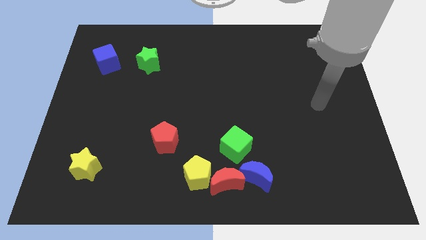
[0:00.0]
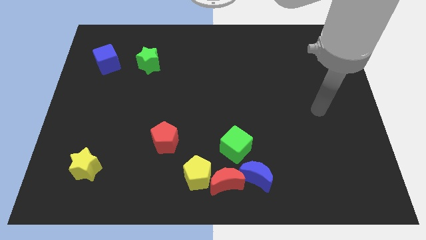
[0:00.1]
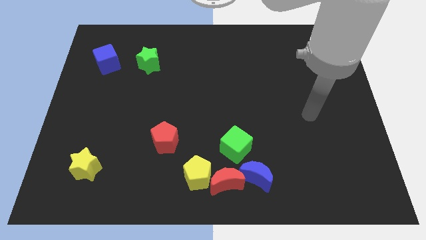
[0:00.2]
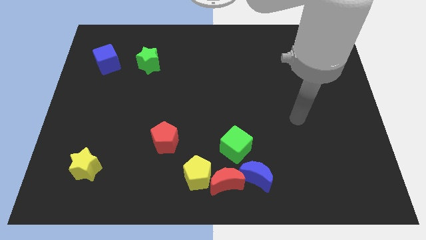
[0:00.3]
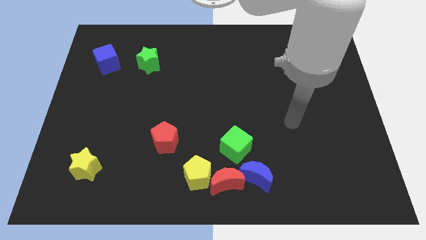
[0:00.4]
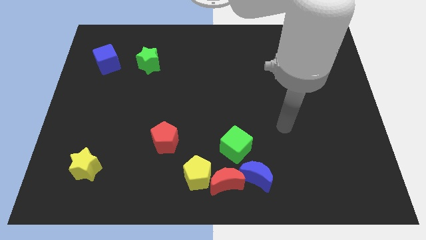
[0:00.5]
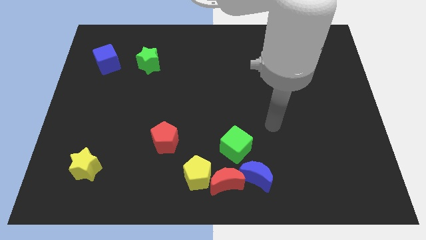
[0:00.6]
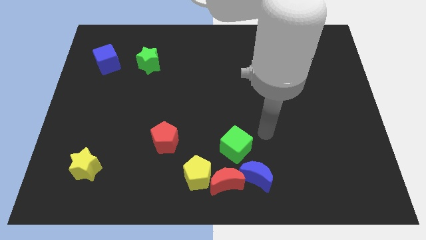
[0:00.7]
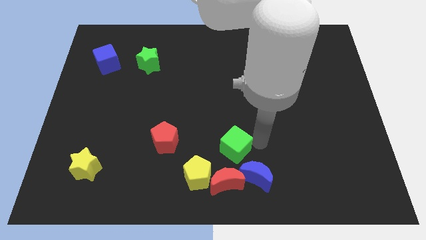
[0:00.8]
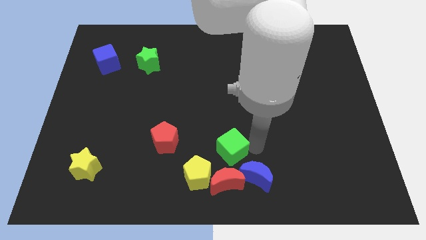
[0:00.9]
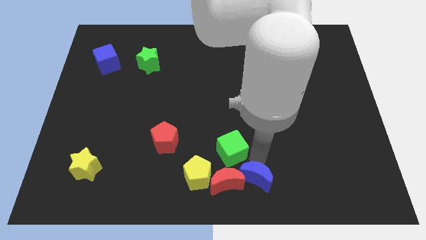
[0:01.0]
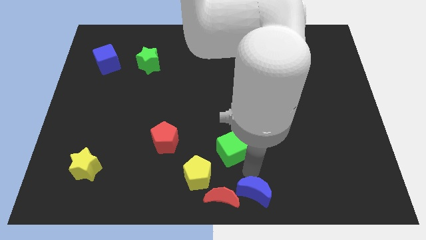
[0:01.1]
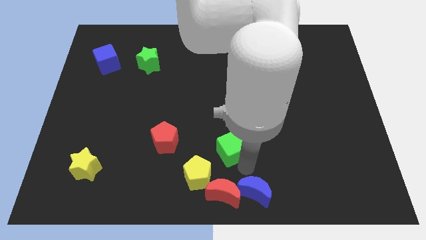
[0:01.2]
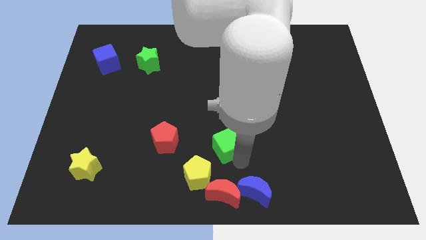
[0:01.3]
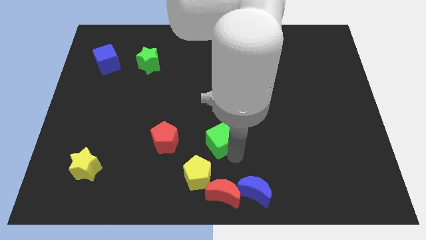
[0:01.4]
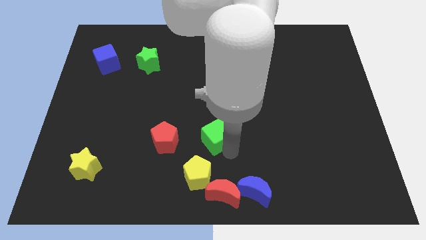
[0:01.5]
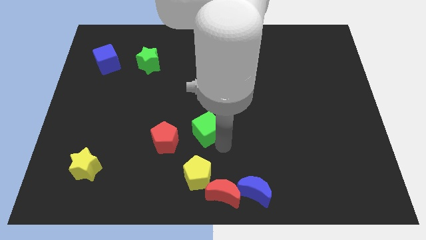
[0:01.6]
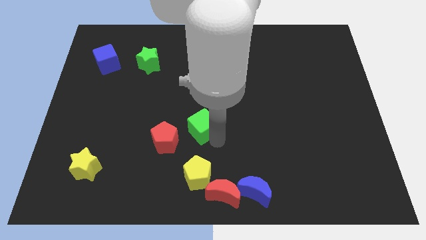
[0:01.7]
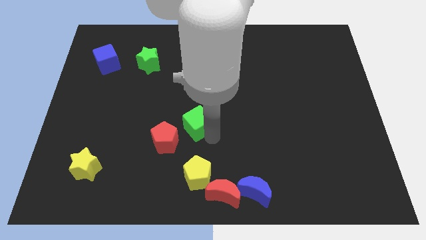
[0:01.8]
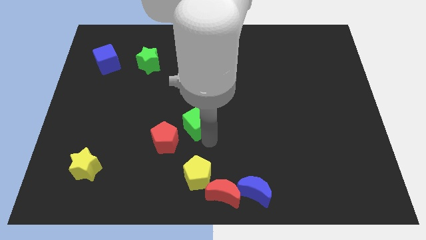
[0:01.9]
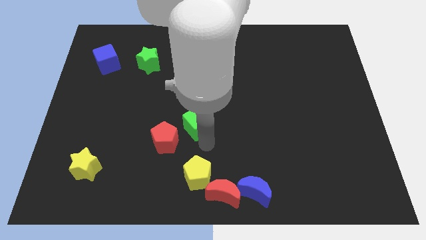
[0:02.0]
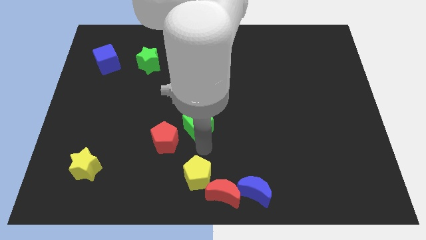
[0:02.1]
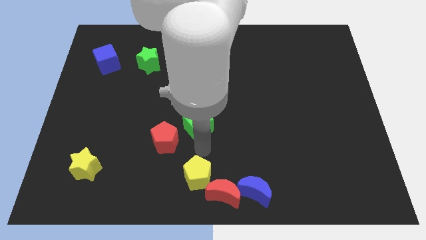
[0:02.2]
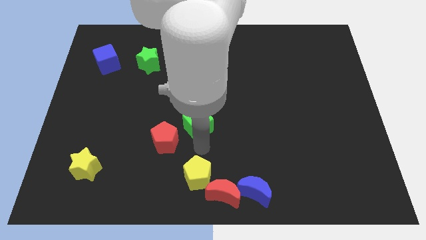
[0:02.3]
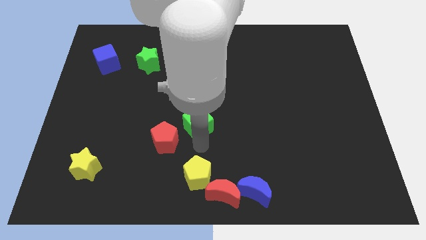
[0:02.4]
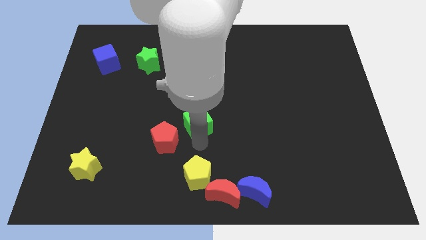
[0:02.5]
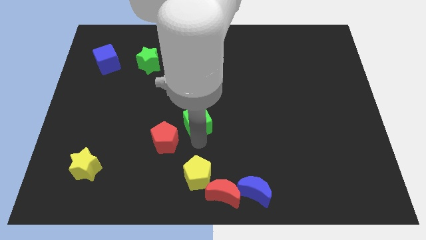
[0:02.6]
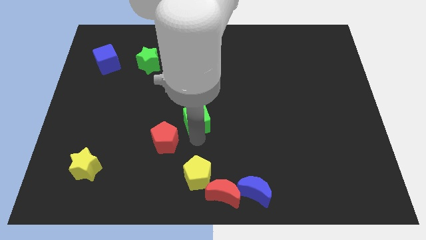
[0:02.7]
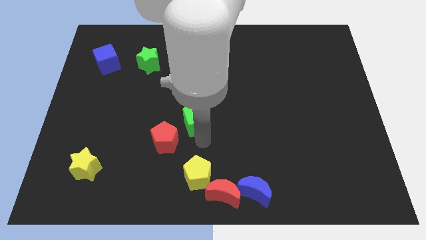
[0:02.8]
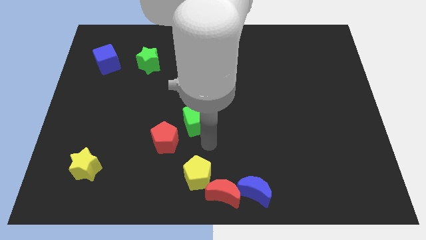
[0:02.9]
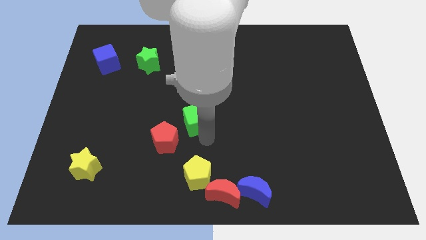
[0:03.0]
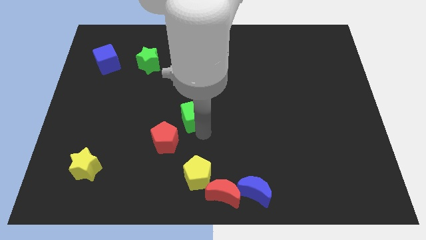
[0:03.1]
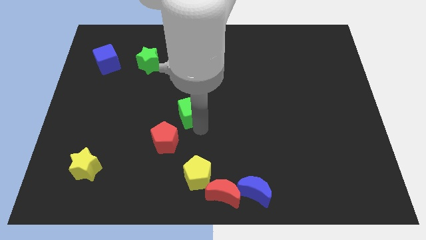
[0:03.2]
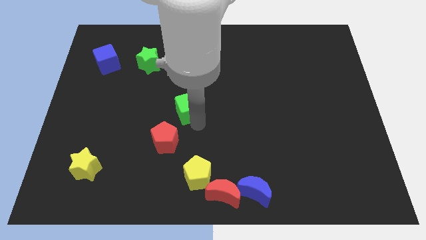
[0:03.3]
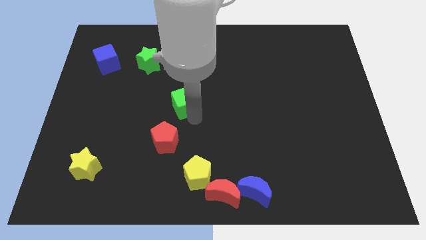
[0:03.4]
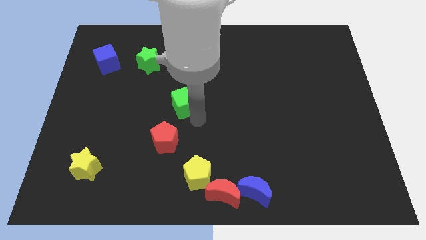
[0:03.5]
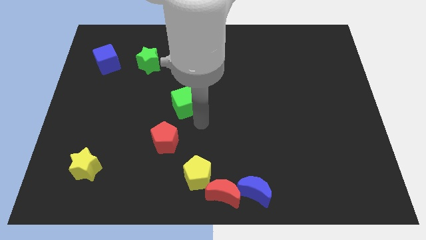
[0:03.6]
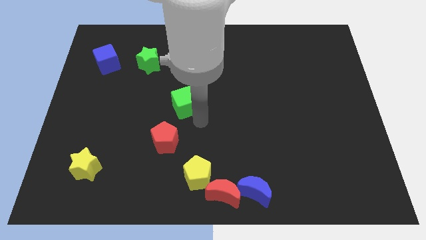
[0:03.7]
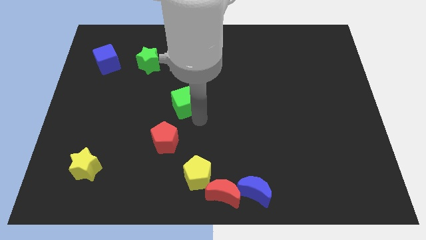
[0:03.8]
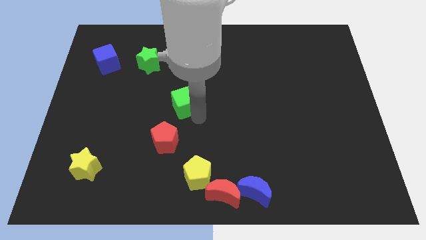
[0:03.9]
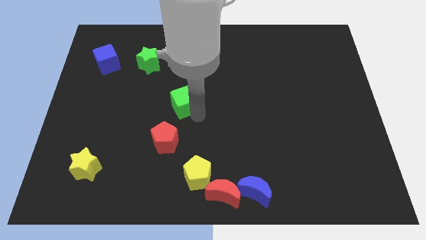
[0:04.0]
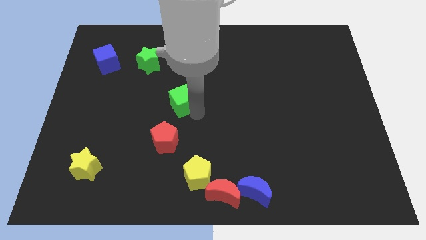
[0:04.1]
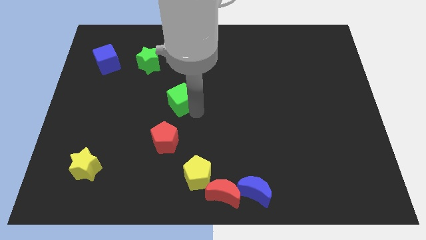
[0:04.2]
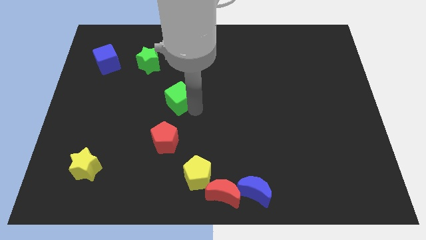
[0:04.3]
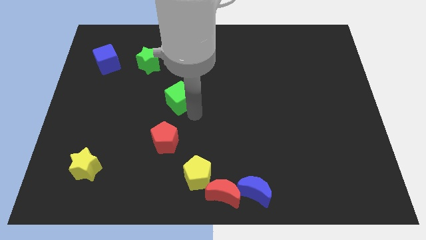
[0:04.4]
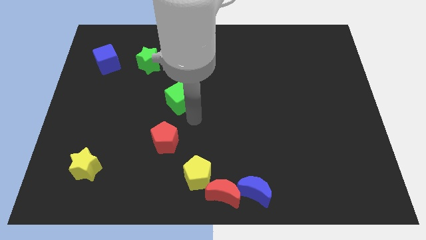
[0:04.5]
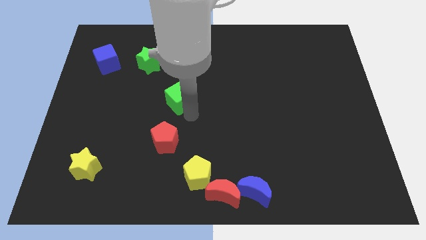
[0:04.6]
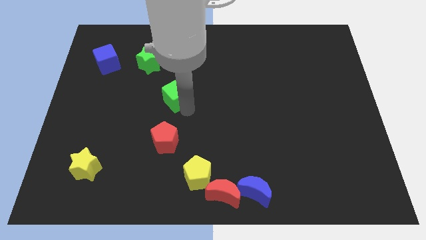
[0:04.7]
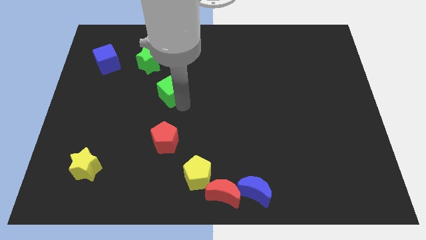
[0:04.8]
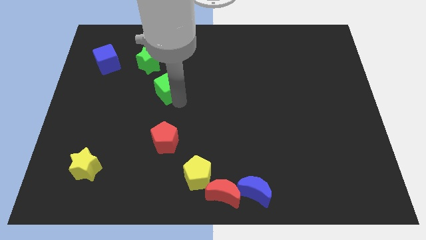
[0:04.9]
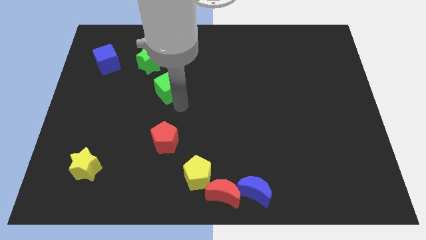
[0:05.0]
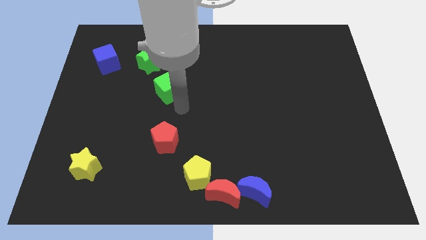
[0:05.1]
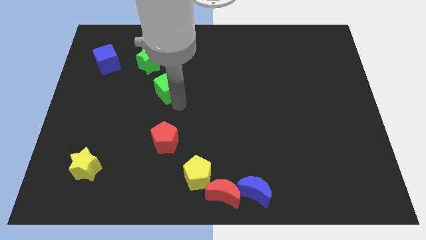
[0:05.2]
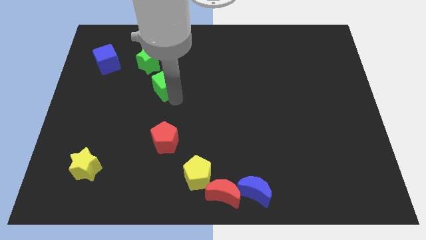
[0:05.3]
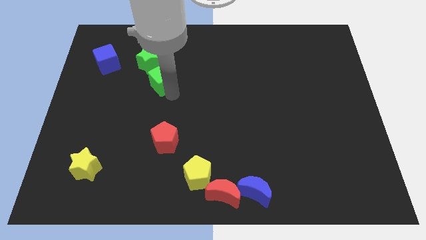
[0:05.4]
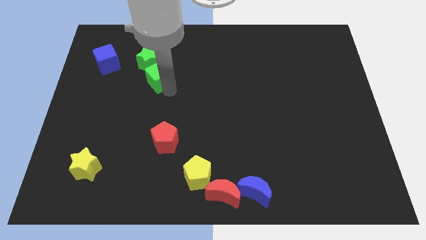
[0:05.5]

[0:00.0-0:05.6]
push the green cube close to the green star

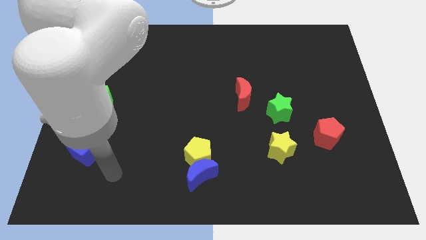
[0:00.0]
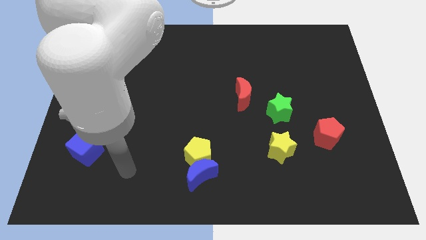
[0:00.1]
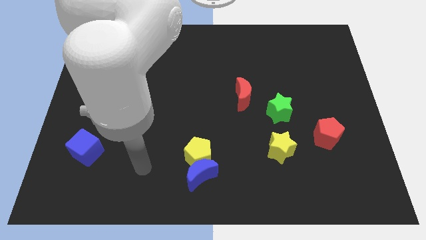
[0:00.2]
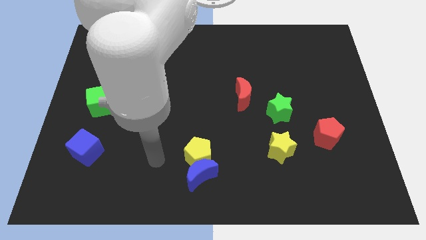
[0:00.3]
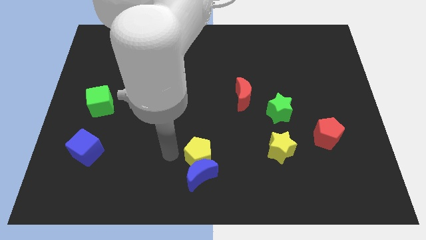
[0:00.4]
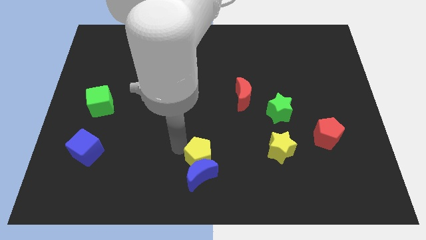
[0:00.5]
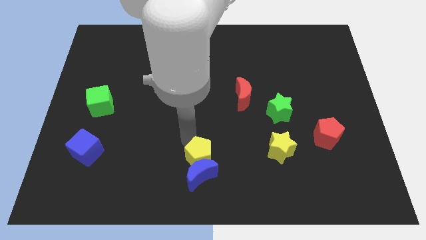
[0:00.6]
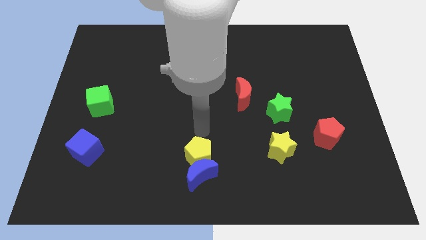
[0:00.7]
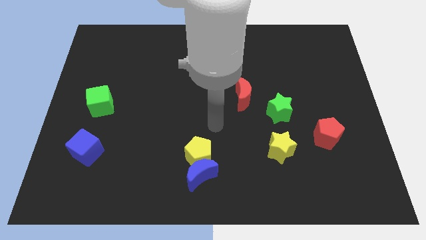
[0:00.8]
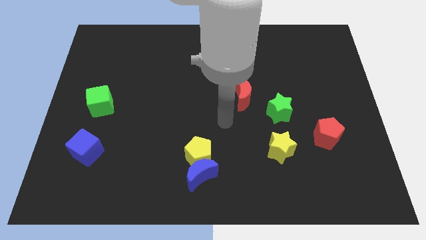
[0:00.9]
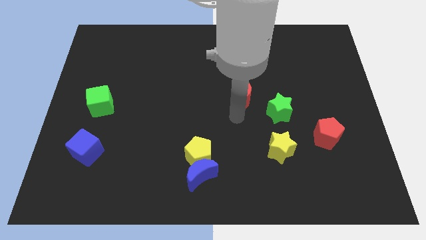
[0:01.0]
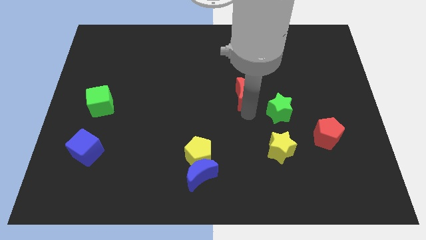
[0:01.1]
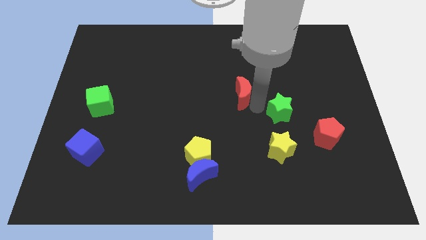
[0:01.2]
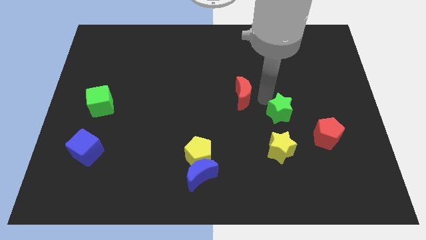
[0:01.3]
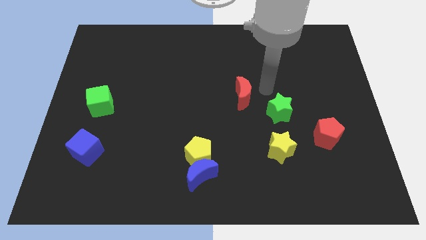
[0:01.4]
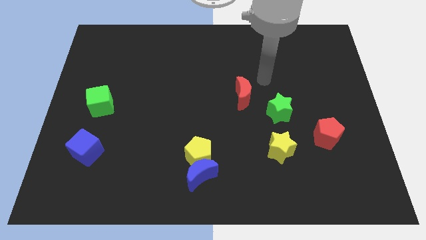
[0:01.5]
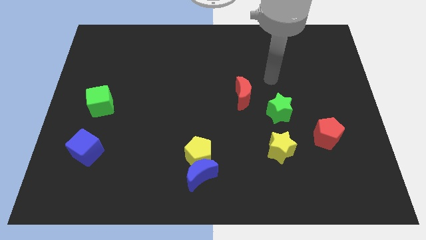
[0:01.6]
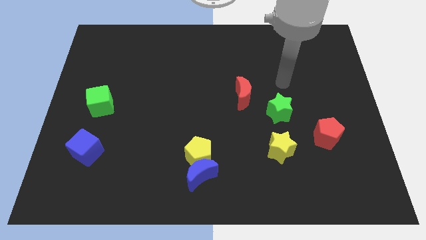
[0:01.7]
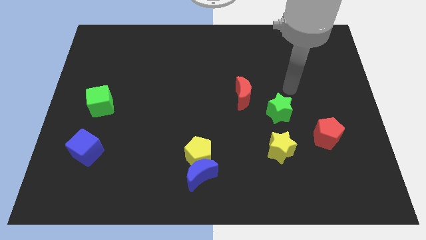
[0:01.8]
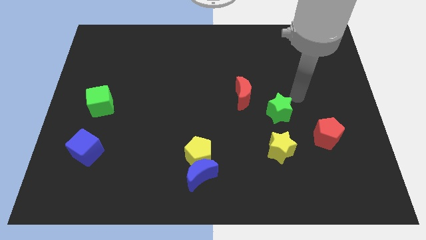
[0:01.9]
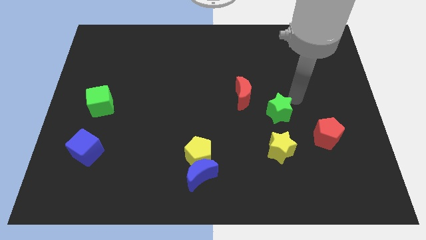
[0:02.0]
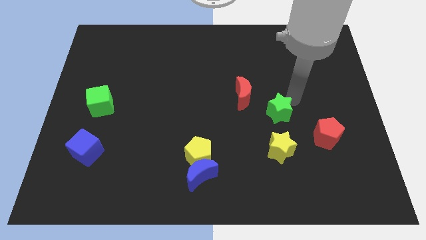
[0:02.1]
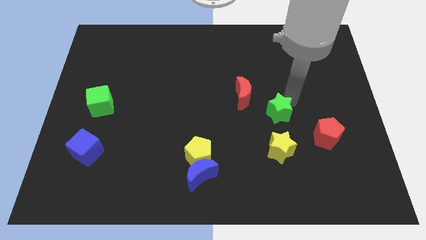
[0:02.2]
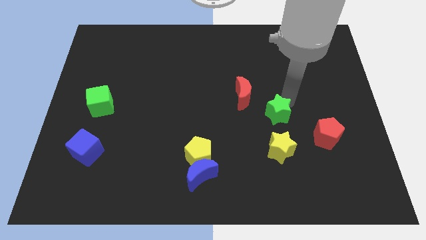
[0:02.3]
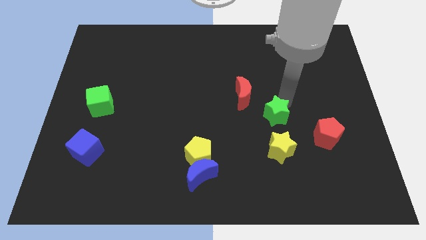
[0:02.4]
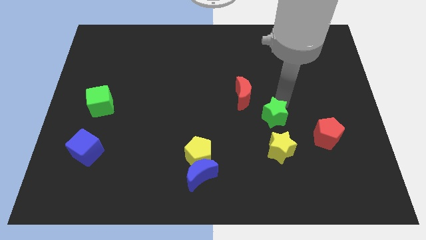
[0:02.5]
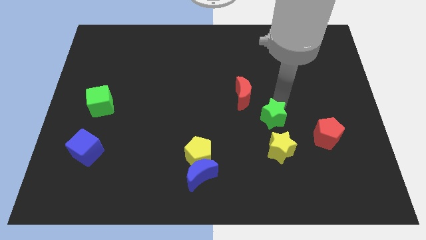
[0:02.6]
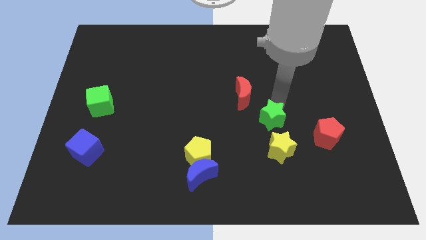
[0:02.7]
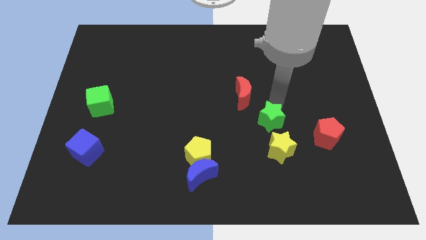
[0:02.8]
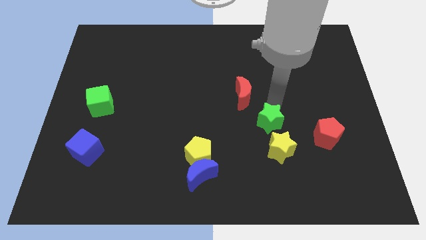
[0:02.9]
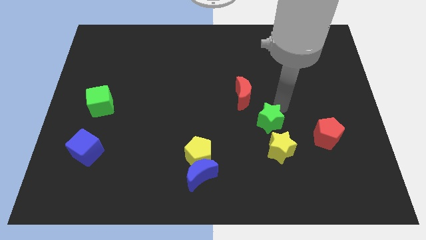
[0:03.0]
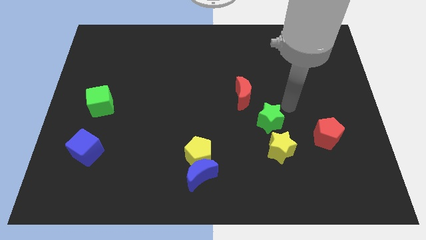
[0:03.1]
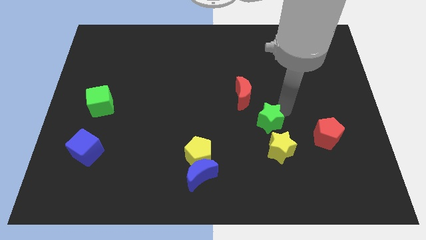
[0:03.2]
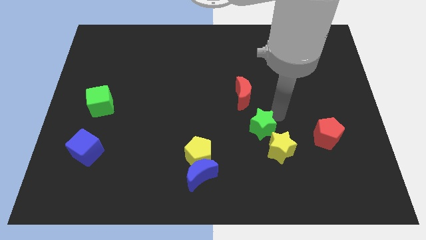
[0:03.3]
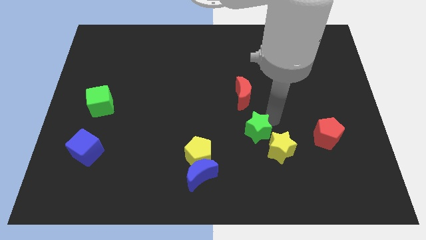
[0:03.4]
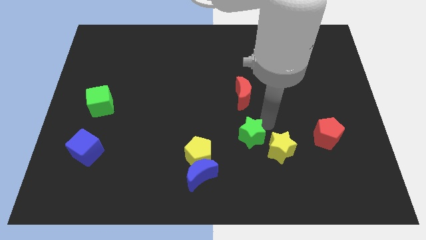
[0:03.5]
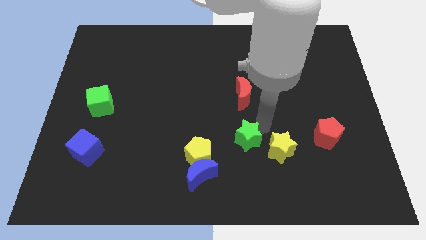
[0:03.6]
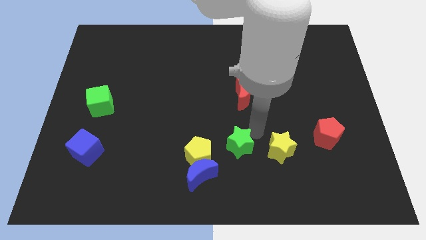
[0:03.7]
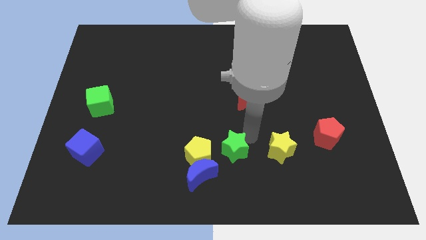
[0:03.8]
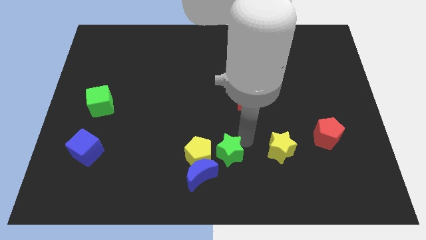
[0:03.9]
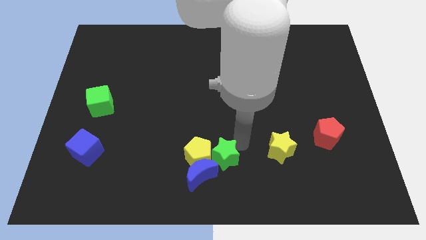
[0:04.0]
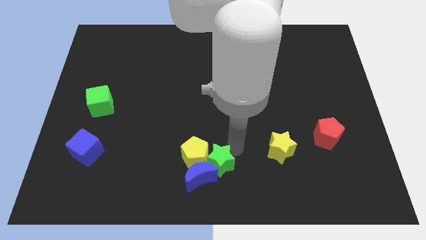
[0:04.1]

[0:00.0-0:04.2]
move the green star to the blue moon
